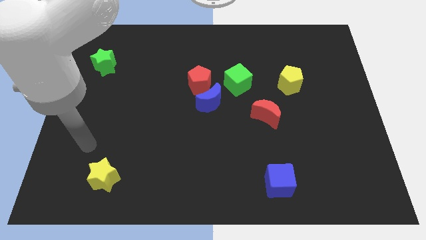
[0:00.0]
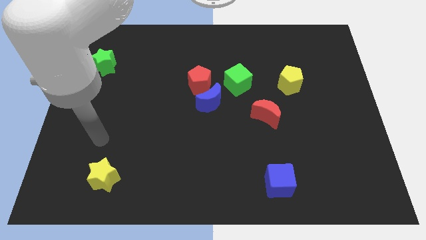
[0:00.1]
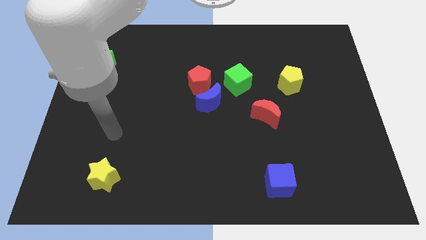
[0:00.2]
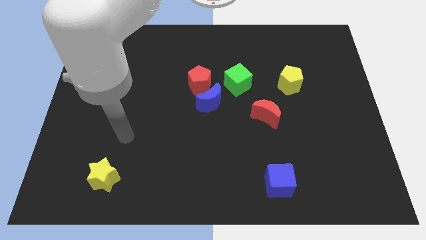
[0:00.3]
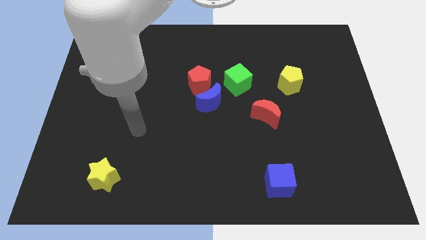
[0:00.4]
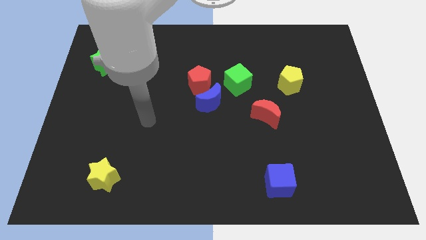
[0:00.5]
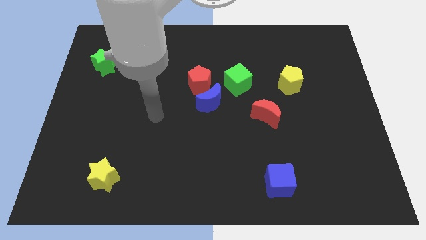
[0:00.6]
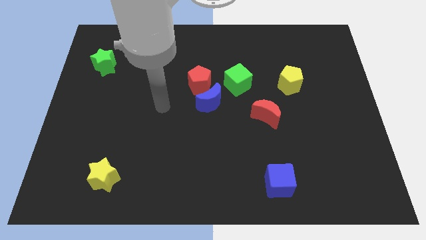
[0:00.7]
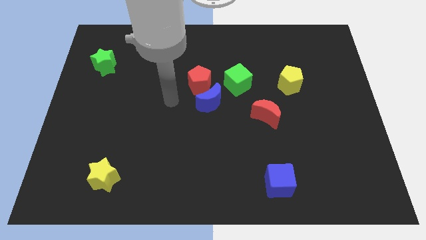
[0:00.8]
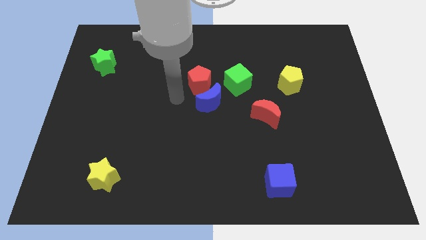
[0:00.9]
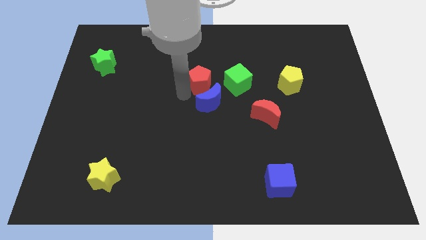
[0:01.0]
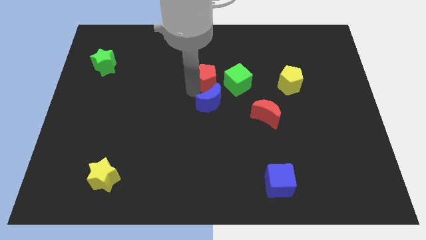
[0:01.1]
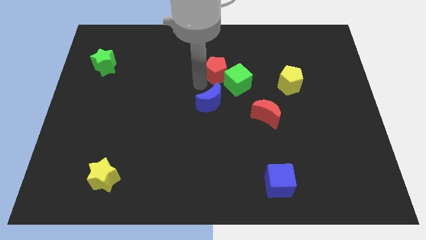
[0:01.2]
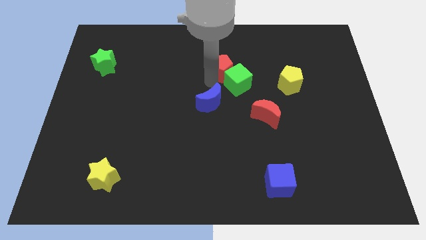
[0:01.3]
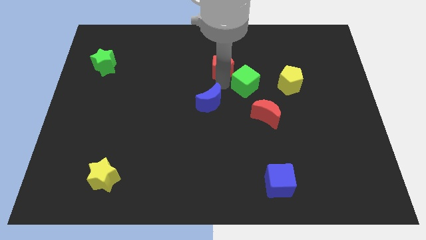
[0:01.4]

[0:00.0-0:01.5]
pull the blue moon apart from the red pentagon and green cube

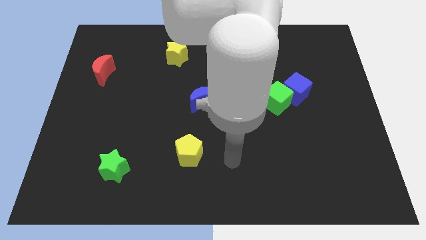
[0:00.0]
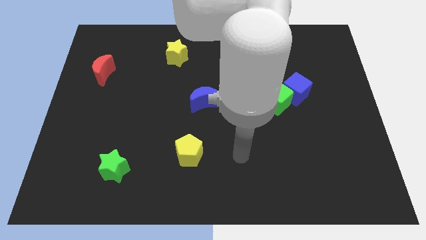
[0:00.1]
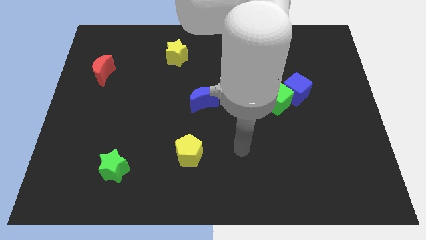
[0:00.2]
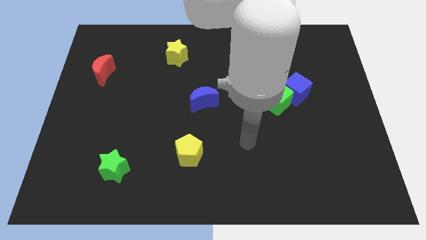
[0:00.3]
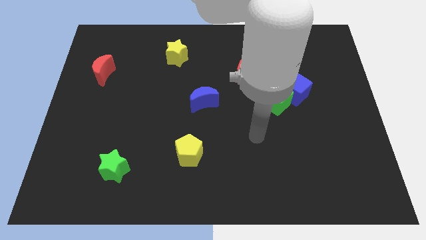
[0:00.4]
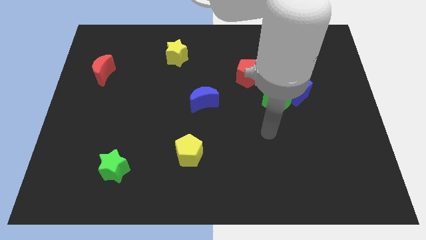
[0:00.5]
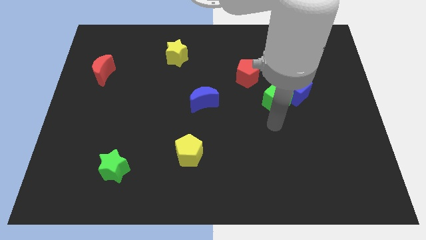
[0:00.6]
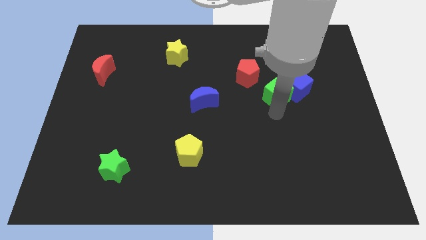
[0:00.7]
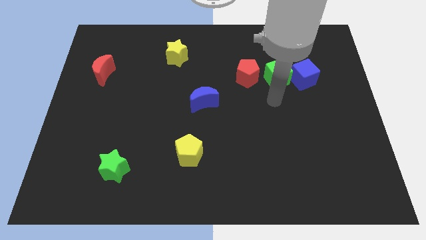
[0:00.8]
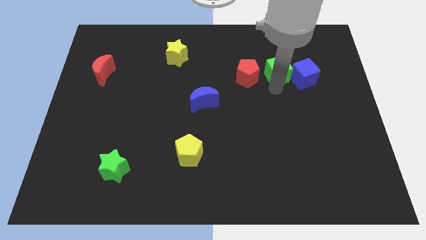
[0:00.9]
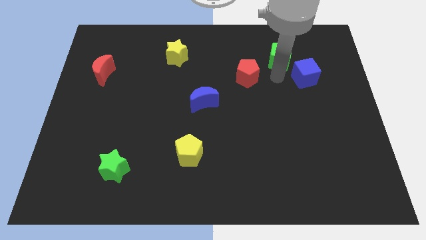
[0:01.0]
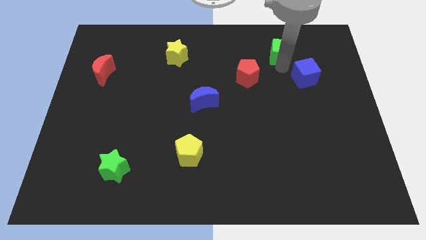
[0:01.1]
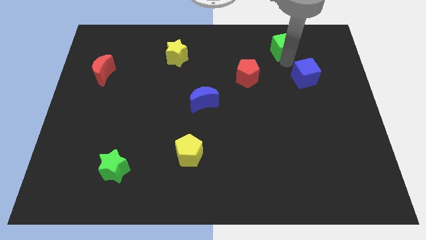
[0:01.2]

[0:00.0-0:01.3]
pull the blue cube apart from the green cube

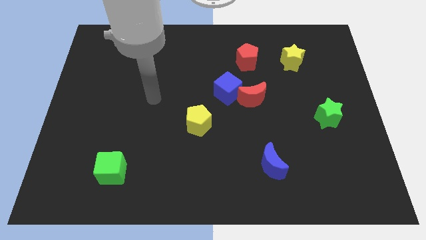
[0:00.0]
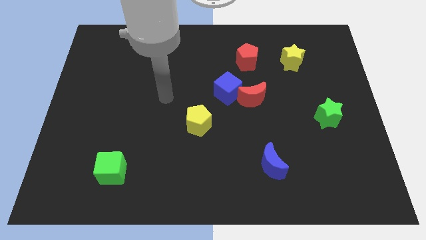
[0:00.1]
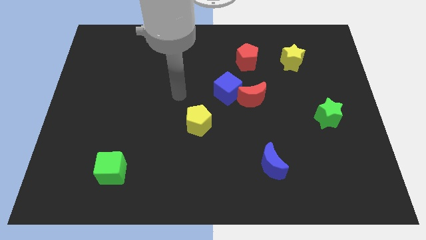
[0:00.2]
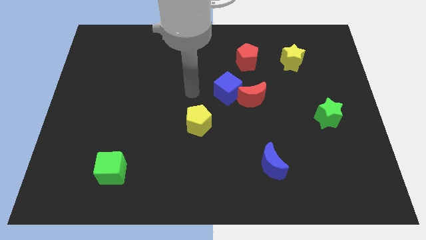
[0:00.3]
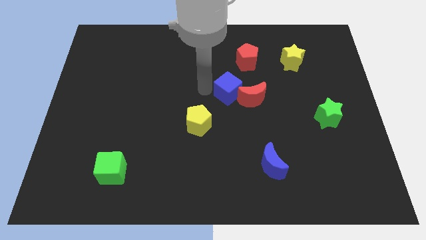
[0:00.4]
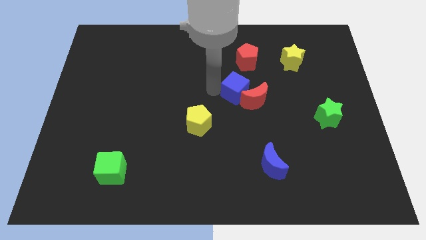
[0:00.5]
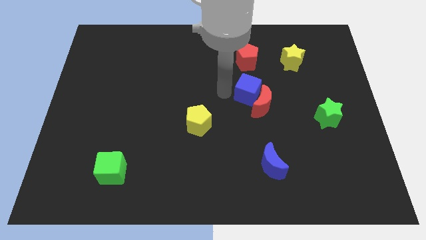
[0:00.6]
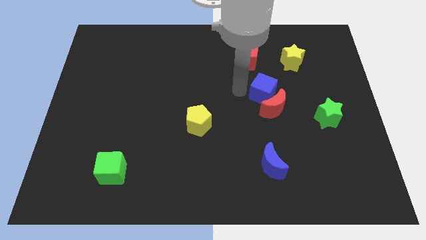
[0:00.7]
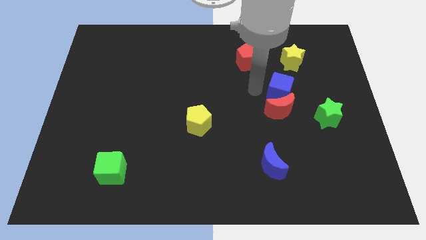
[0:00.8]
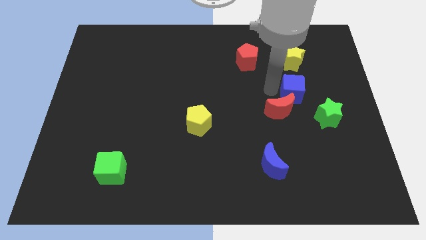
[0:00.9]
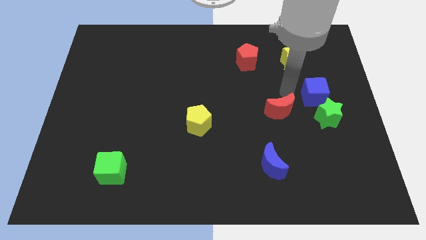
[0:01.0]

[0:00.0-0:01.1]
pull the red moon apart from the blue cube

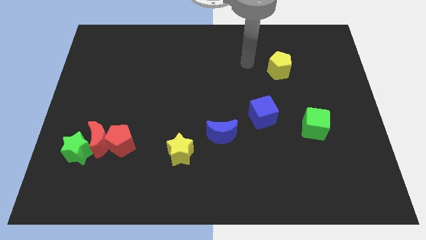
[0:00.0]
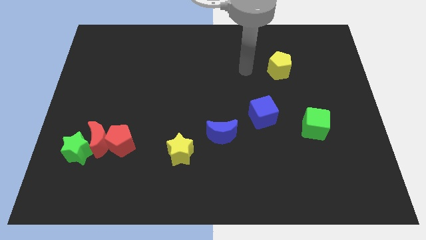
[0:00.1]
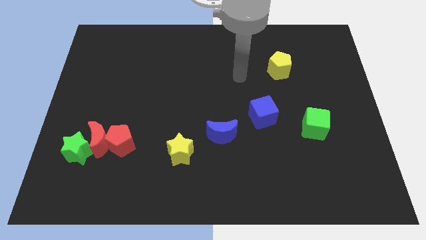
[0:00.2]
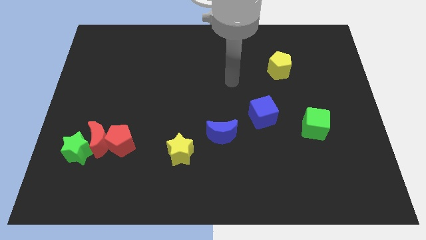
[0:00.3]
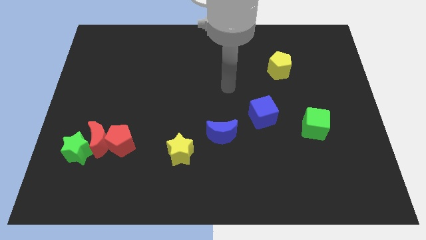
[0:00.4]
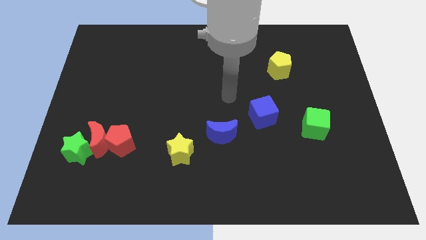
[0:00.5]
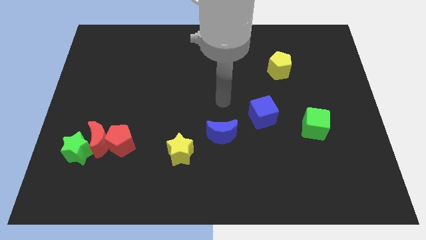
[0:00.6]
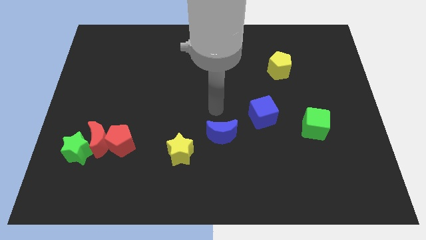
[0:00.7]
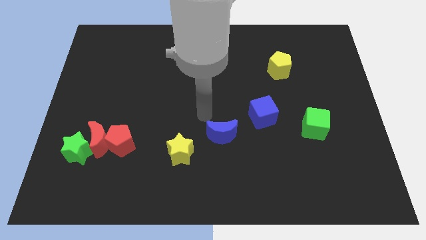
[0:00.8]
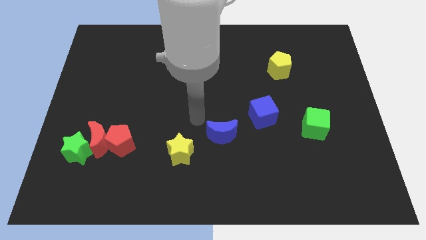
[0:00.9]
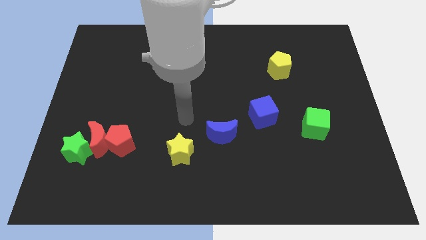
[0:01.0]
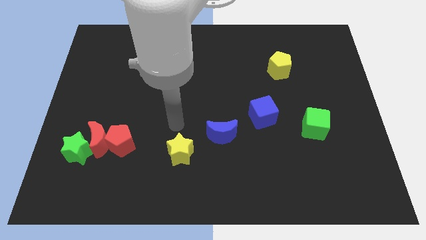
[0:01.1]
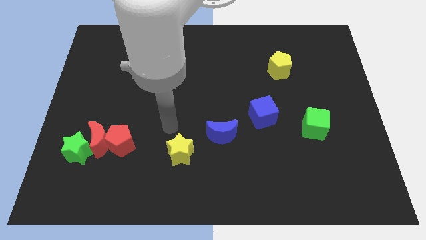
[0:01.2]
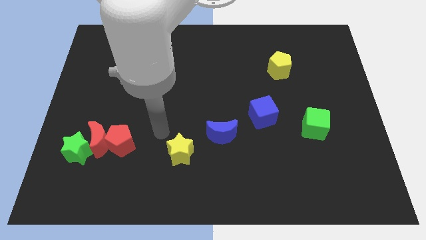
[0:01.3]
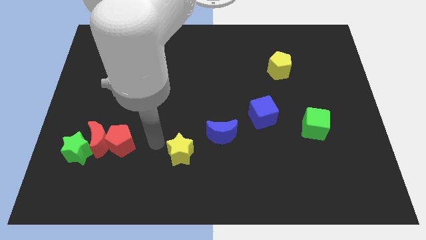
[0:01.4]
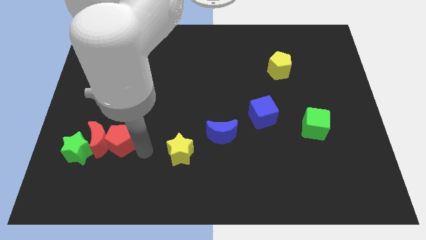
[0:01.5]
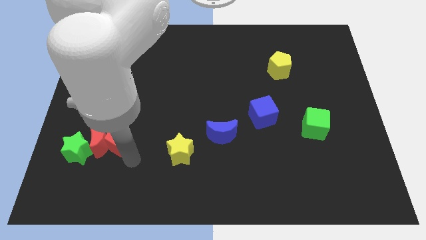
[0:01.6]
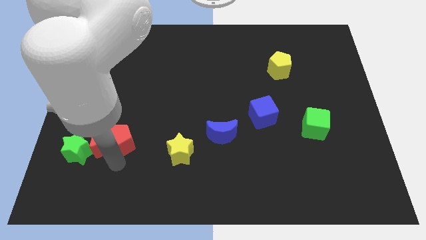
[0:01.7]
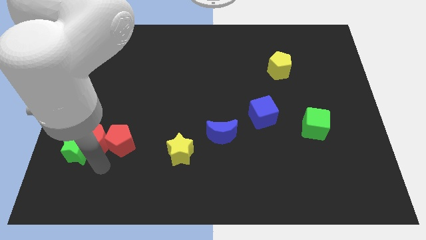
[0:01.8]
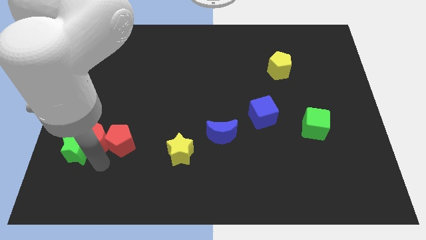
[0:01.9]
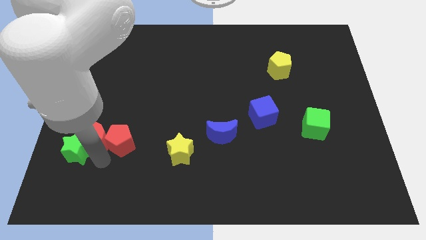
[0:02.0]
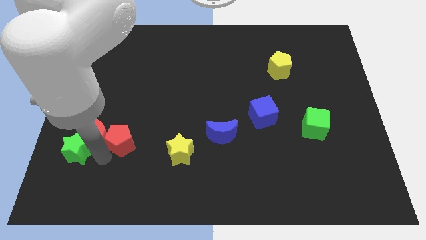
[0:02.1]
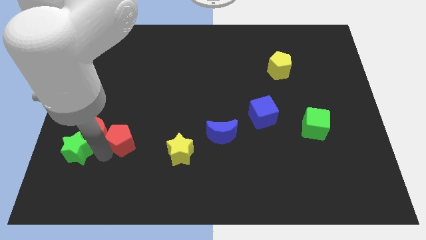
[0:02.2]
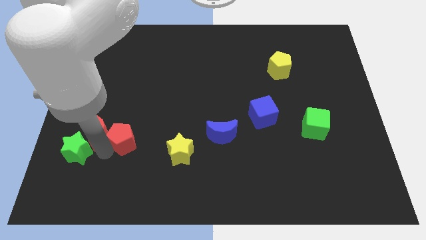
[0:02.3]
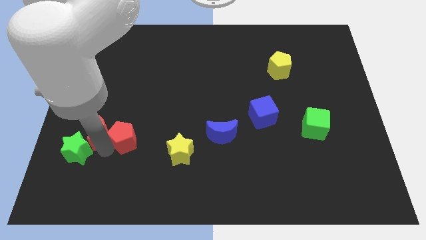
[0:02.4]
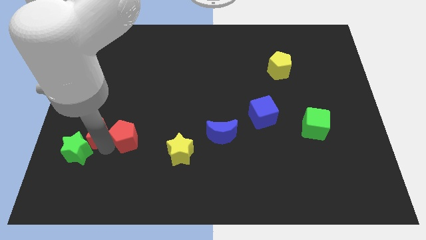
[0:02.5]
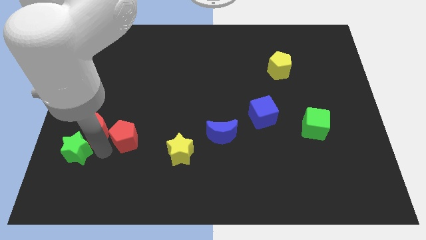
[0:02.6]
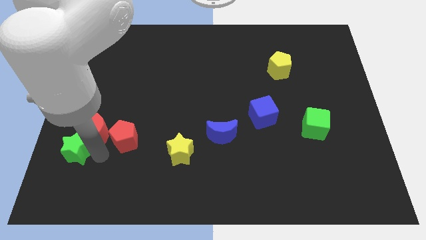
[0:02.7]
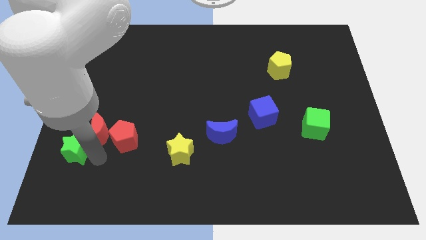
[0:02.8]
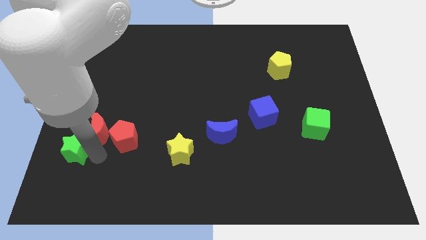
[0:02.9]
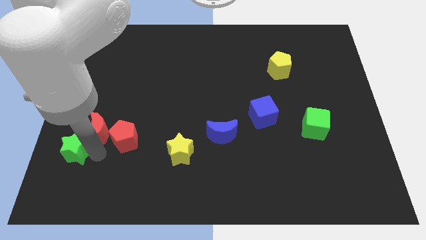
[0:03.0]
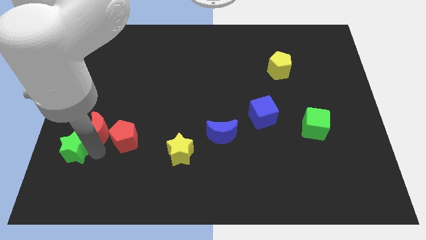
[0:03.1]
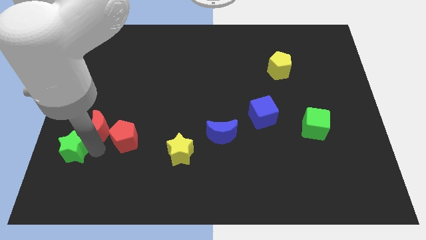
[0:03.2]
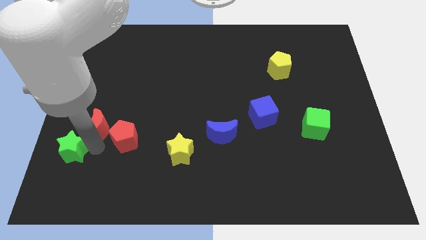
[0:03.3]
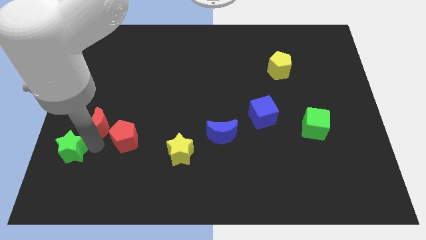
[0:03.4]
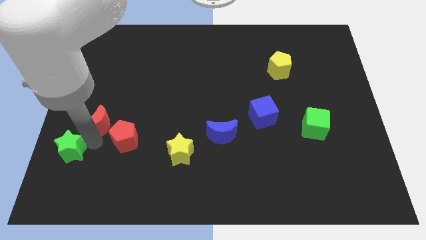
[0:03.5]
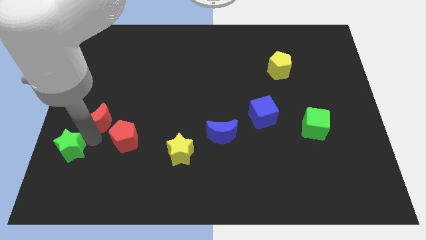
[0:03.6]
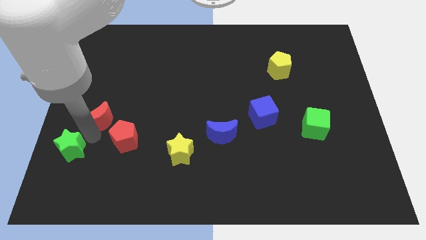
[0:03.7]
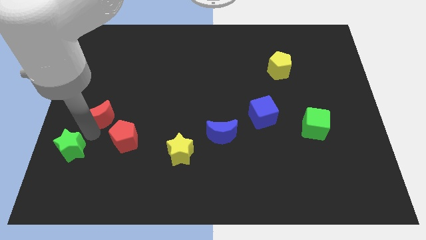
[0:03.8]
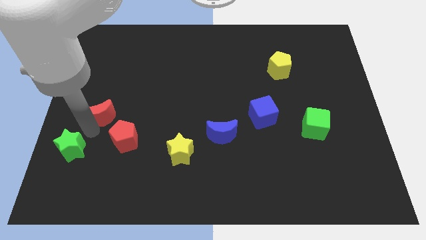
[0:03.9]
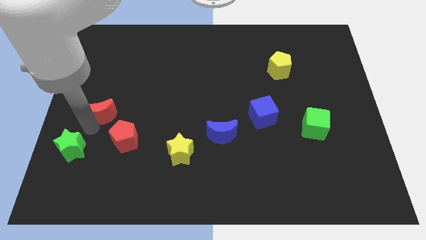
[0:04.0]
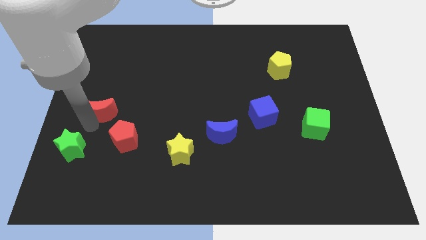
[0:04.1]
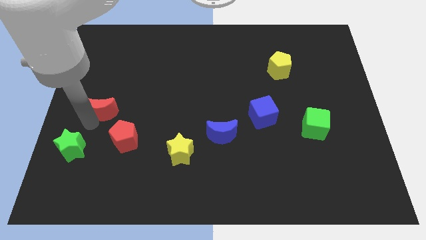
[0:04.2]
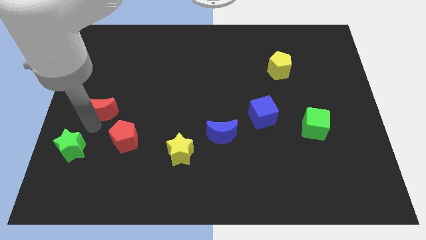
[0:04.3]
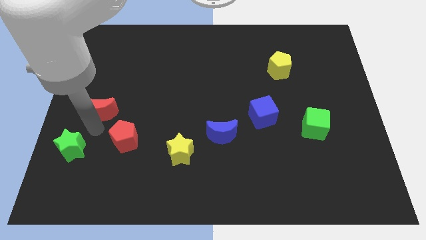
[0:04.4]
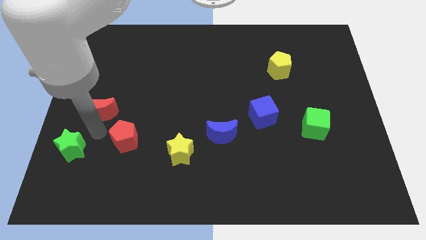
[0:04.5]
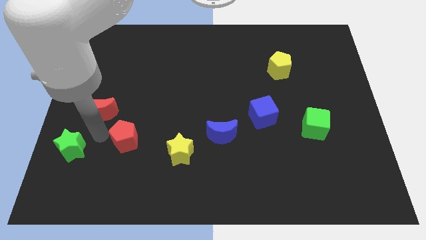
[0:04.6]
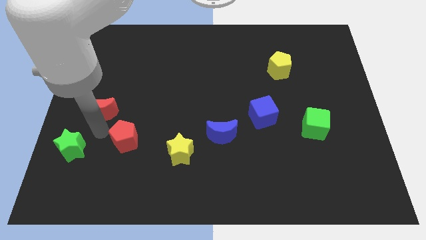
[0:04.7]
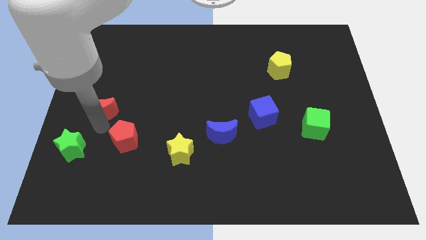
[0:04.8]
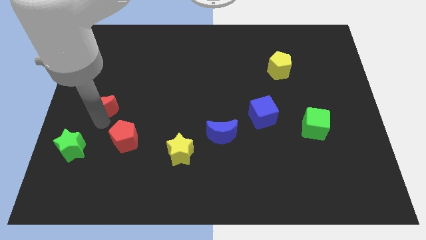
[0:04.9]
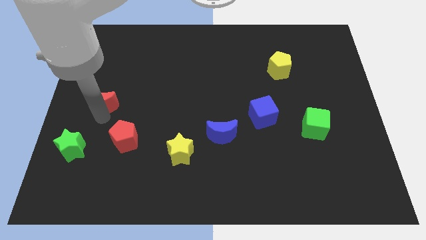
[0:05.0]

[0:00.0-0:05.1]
move the red moon away from the red pentagon and green star

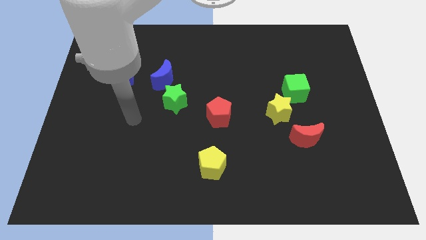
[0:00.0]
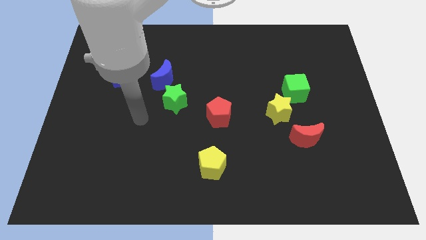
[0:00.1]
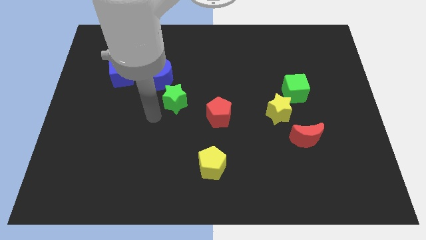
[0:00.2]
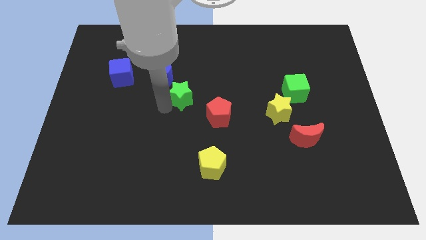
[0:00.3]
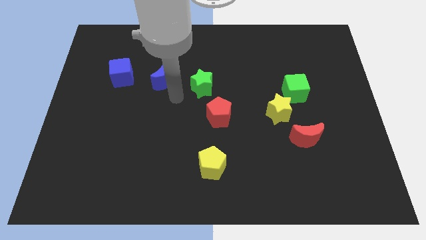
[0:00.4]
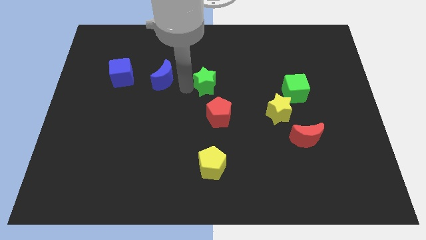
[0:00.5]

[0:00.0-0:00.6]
separate the blue moon from the green star
